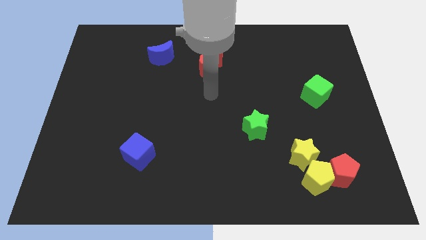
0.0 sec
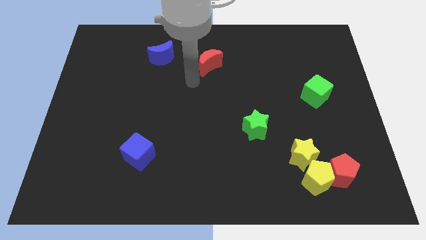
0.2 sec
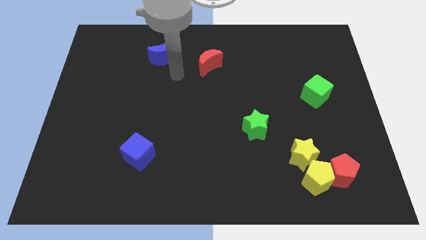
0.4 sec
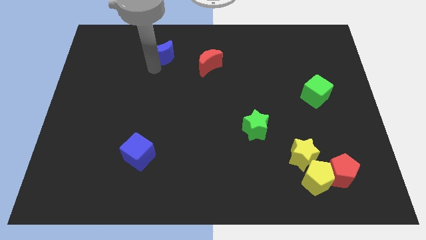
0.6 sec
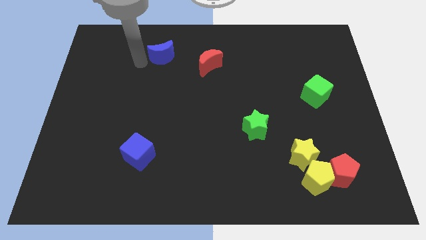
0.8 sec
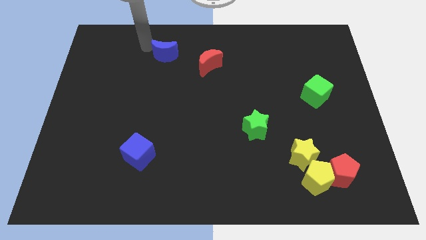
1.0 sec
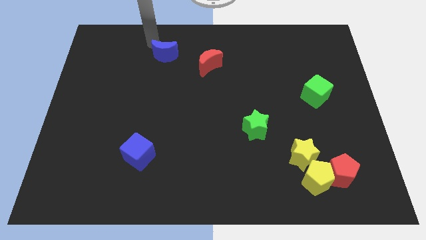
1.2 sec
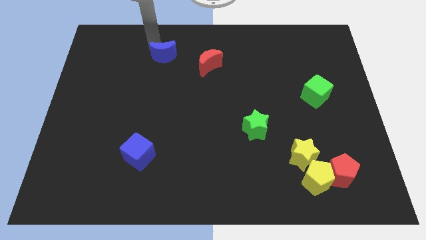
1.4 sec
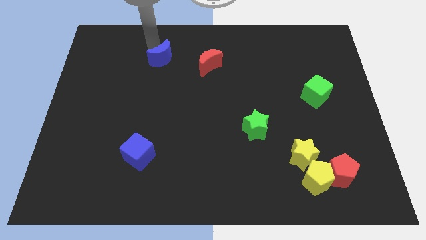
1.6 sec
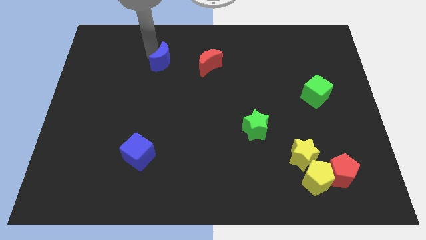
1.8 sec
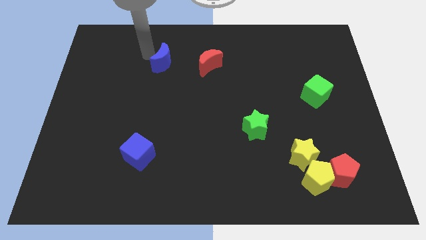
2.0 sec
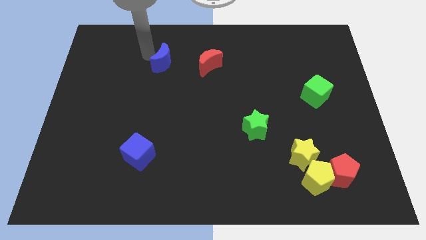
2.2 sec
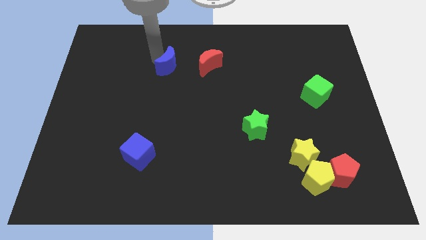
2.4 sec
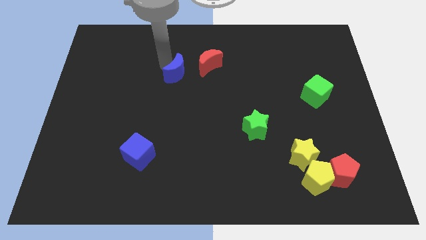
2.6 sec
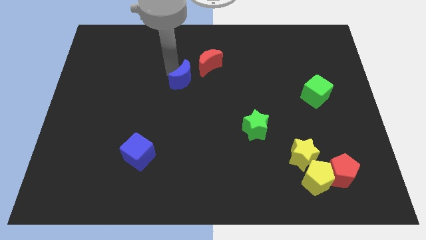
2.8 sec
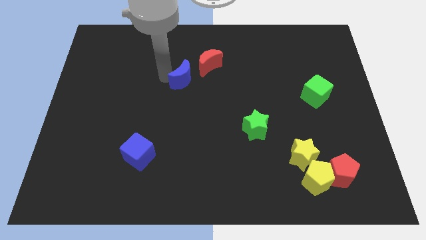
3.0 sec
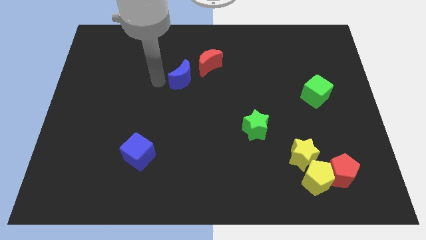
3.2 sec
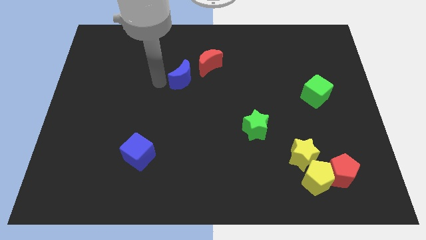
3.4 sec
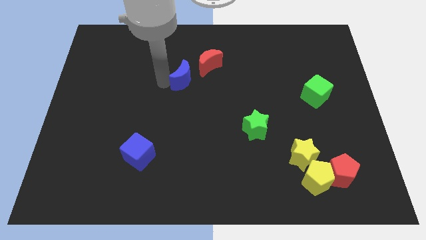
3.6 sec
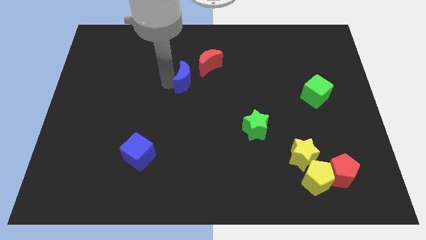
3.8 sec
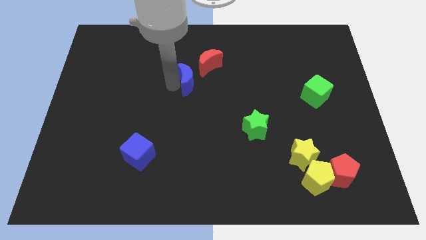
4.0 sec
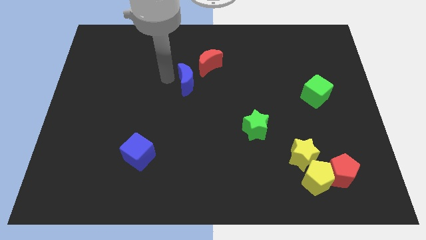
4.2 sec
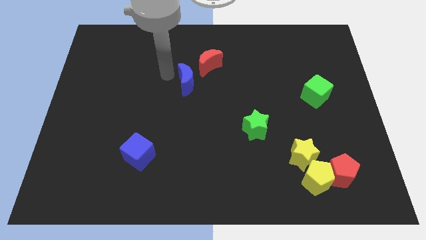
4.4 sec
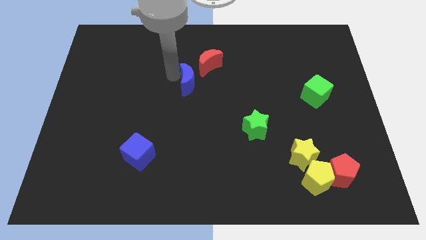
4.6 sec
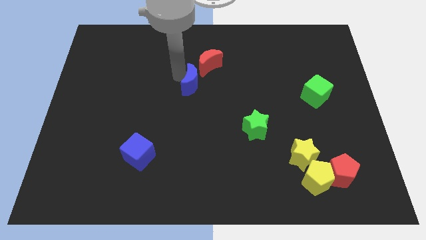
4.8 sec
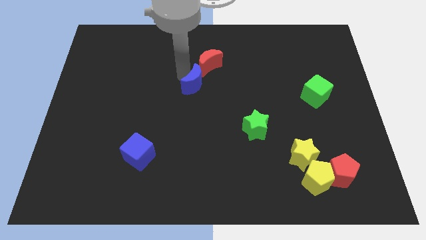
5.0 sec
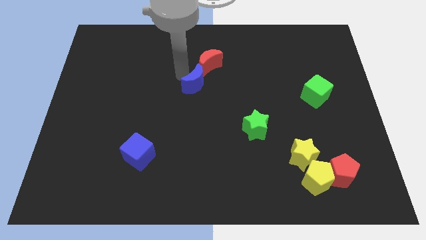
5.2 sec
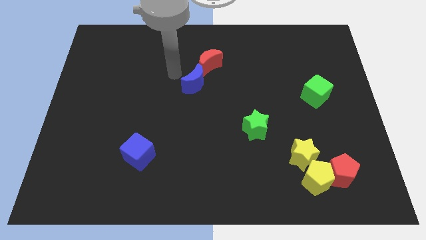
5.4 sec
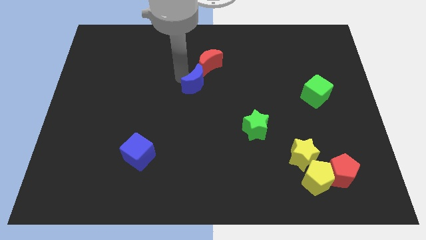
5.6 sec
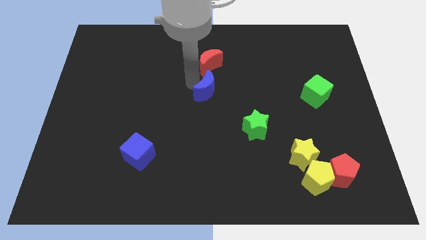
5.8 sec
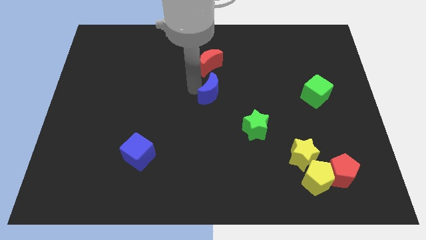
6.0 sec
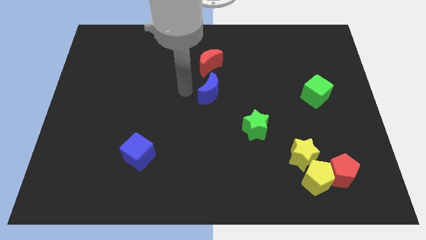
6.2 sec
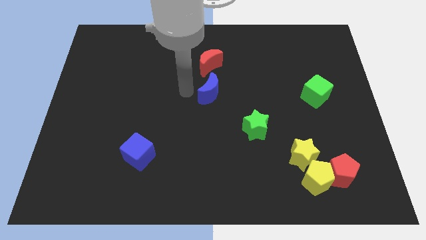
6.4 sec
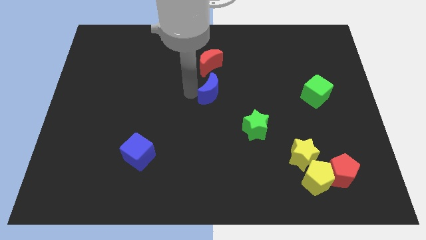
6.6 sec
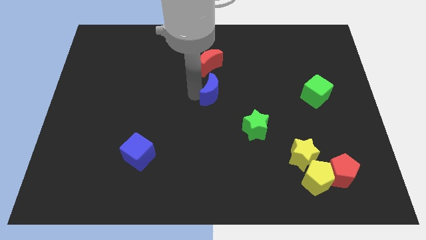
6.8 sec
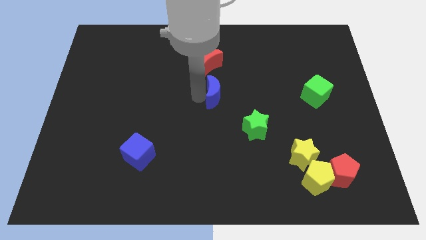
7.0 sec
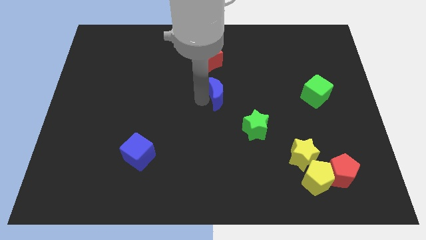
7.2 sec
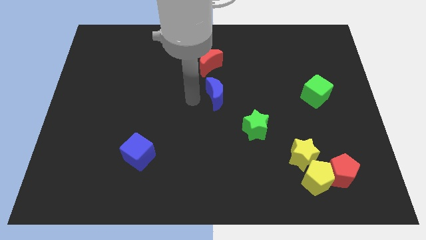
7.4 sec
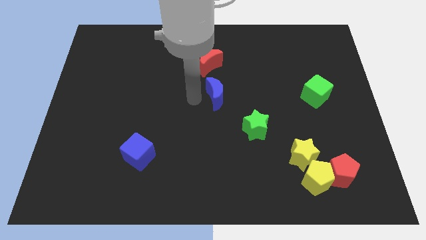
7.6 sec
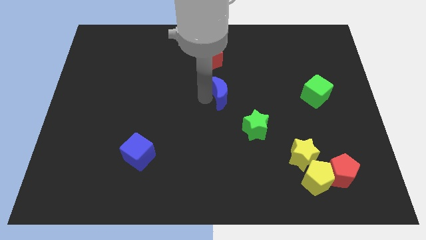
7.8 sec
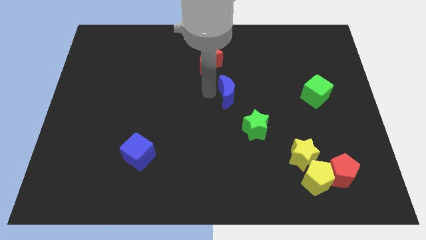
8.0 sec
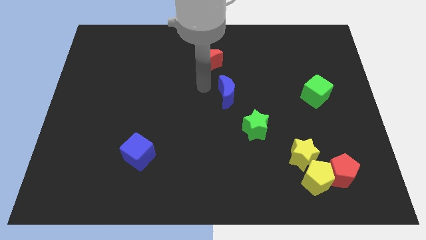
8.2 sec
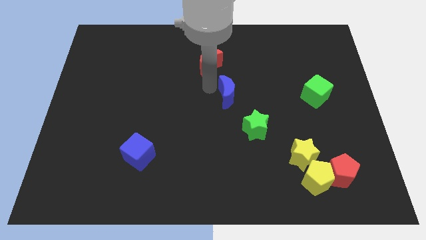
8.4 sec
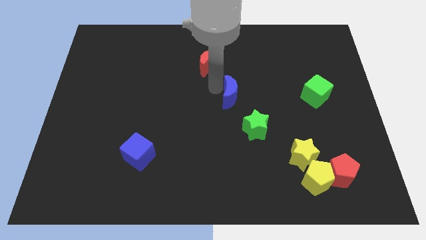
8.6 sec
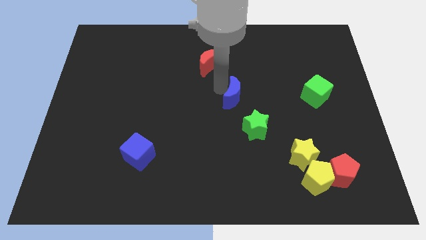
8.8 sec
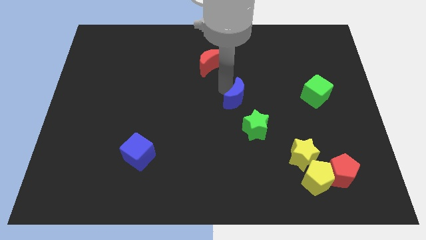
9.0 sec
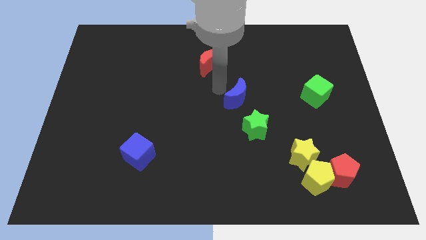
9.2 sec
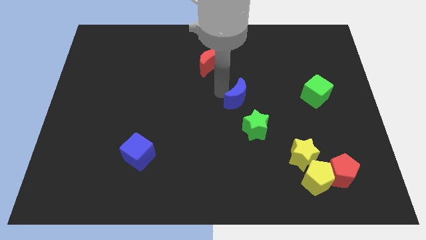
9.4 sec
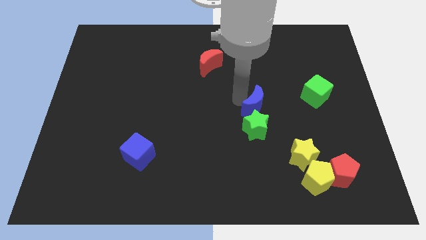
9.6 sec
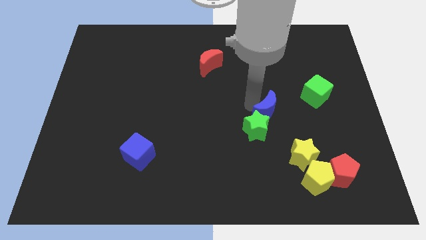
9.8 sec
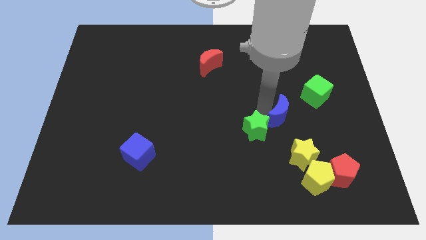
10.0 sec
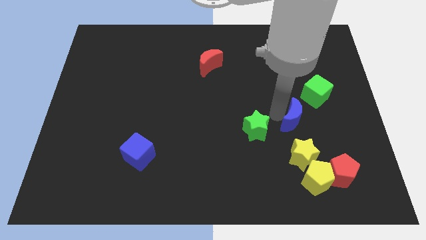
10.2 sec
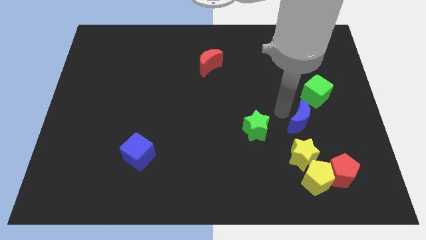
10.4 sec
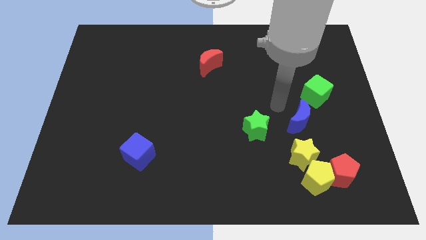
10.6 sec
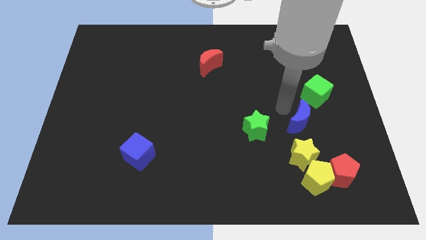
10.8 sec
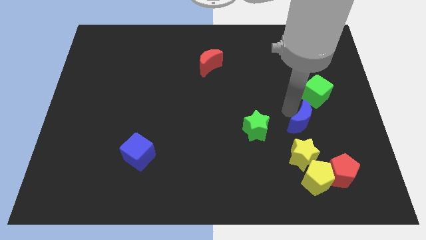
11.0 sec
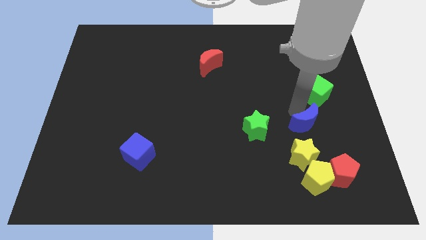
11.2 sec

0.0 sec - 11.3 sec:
move the blue moon diagonally up and to the right of the yellow star

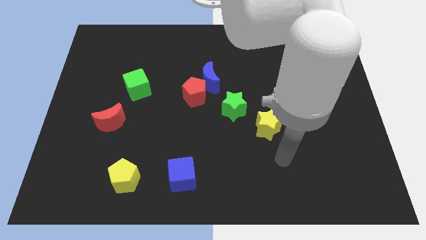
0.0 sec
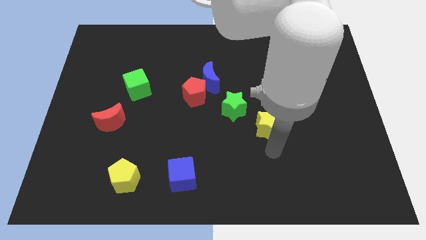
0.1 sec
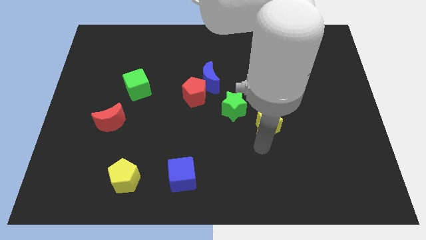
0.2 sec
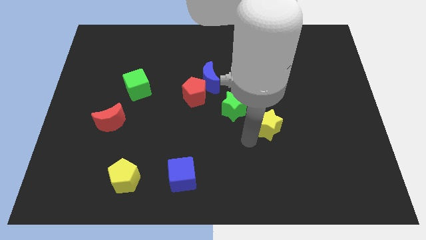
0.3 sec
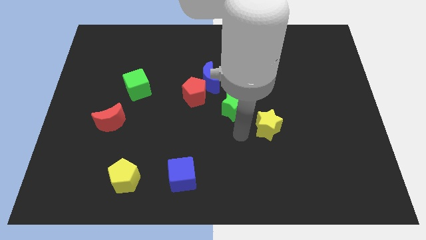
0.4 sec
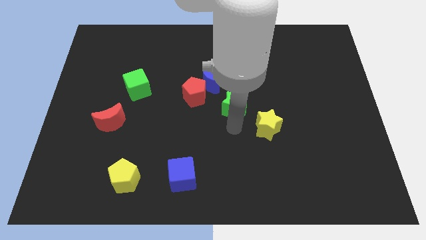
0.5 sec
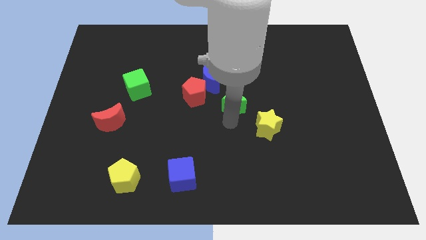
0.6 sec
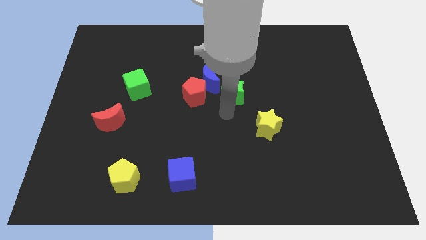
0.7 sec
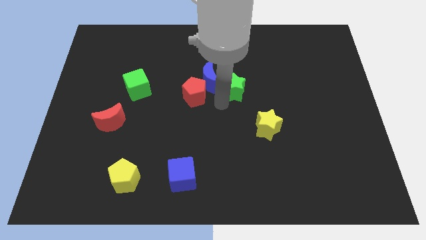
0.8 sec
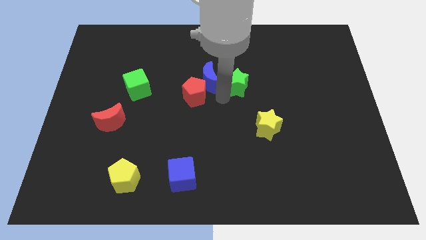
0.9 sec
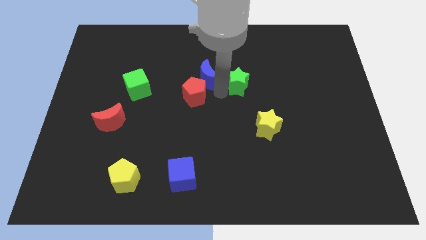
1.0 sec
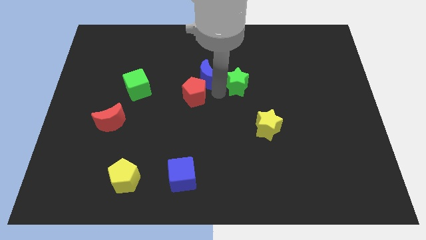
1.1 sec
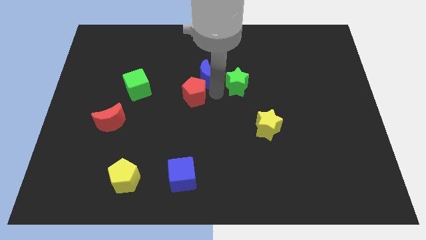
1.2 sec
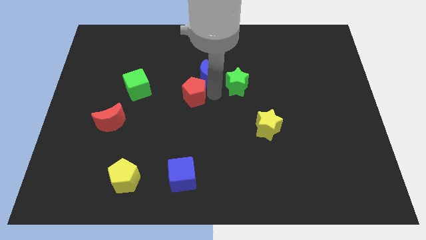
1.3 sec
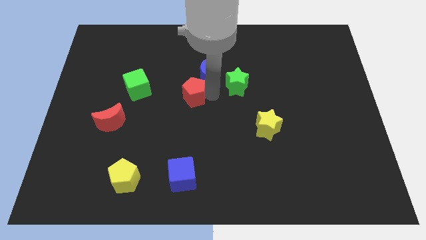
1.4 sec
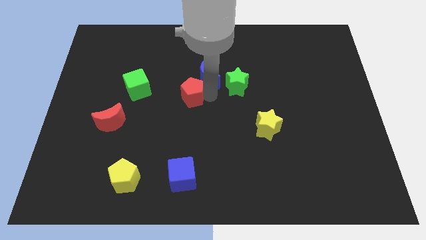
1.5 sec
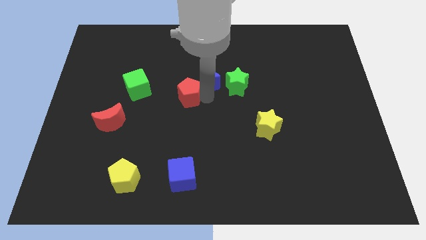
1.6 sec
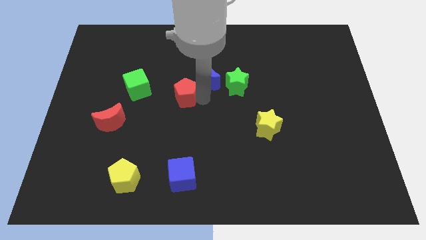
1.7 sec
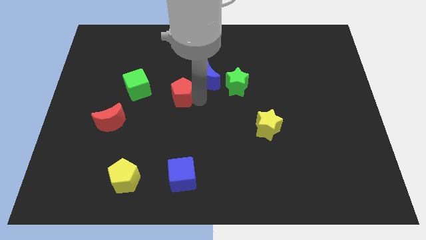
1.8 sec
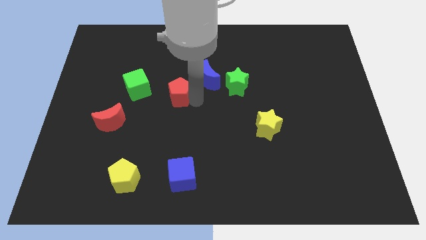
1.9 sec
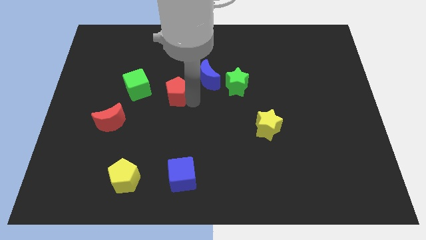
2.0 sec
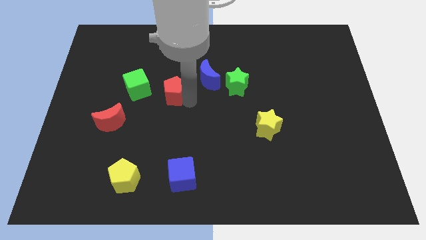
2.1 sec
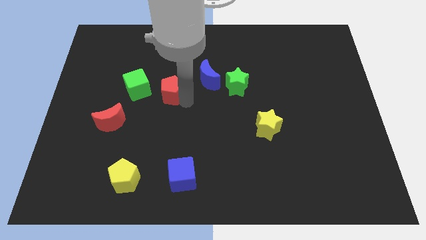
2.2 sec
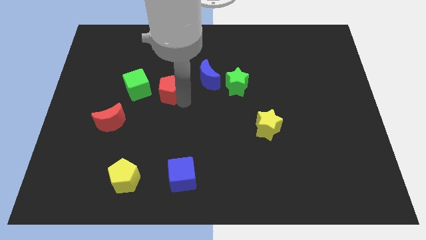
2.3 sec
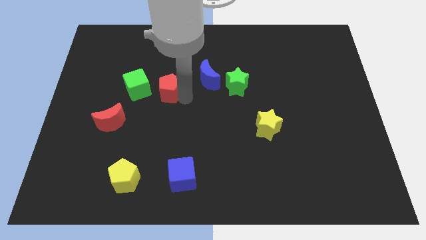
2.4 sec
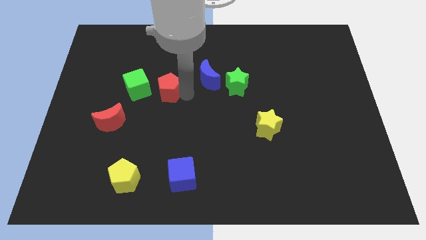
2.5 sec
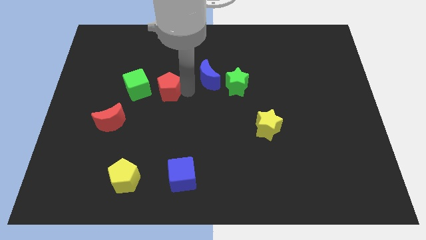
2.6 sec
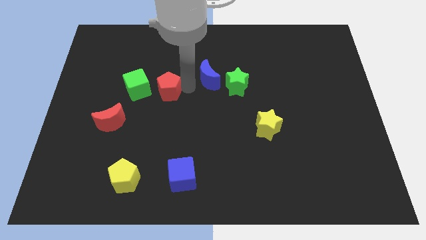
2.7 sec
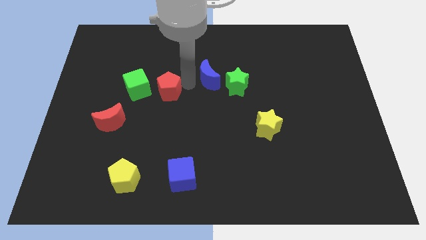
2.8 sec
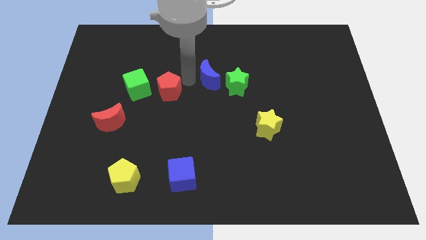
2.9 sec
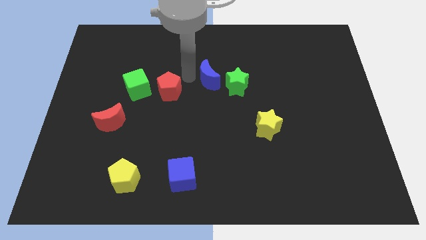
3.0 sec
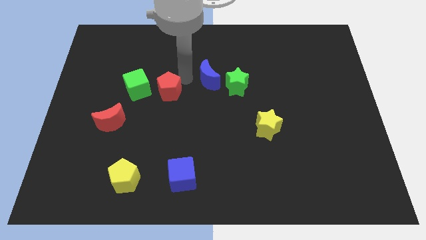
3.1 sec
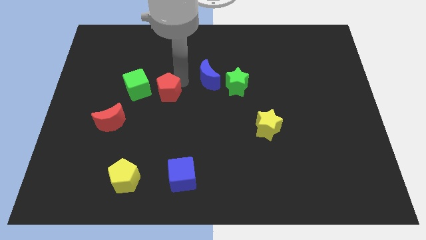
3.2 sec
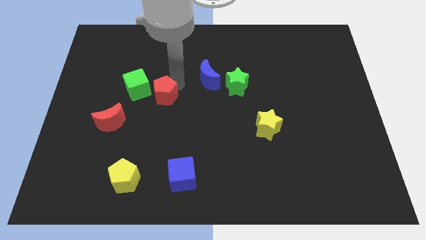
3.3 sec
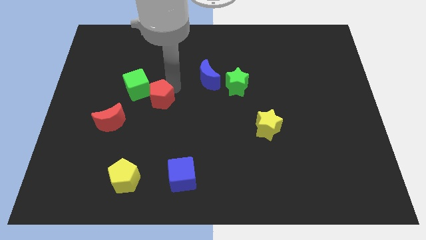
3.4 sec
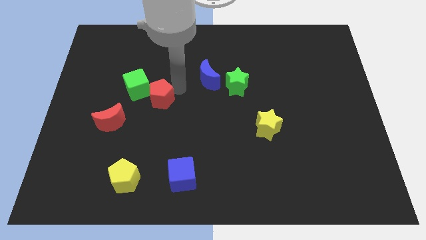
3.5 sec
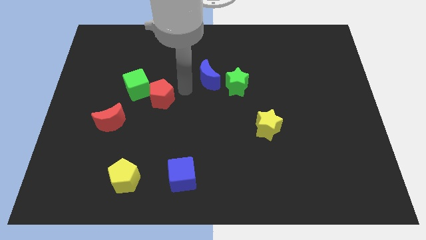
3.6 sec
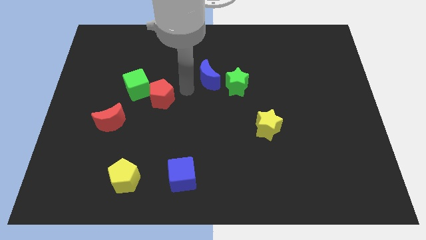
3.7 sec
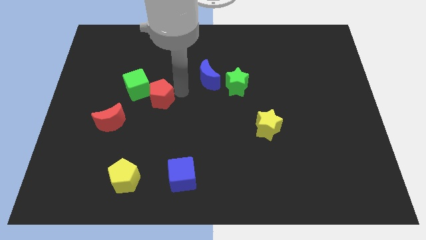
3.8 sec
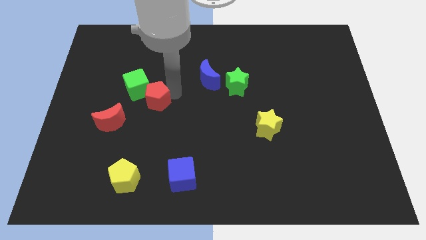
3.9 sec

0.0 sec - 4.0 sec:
put the red pentagon to the top right of the red moon
